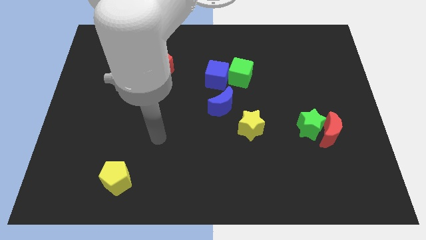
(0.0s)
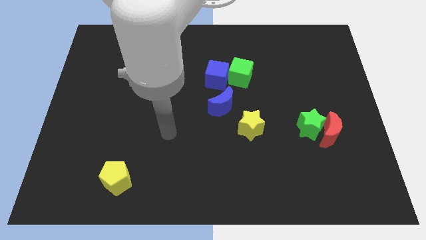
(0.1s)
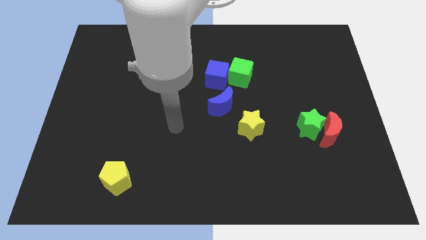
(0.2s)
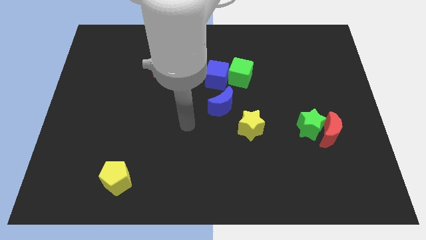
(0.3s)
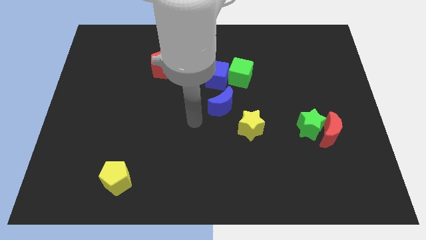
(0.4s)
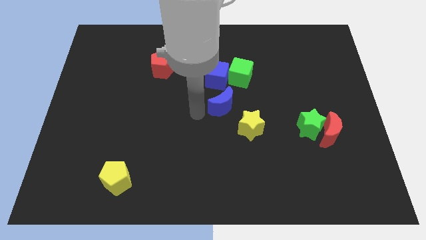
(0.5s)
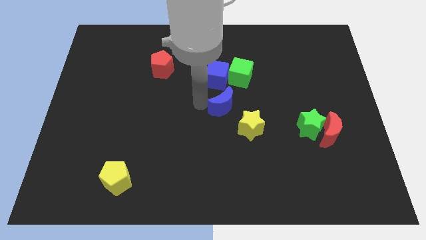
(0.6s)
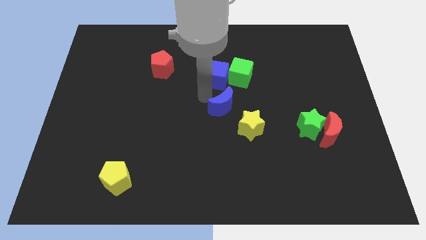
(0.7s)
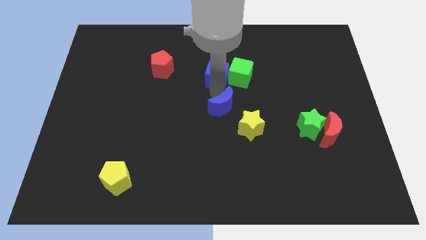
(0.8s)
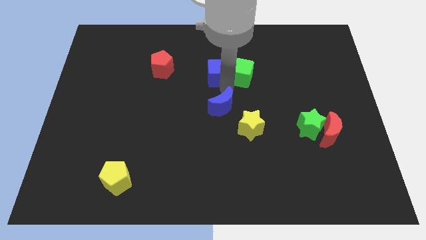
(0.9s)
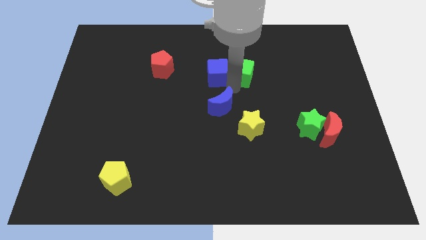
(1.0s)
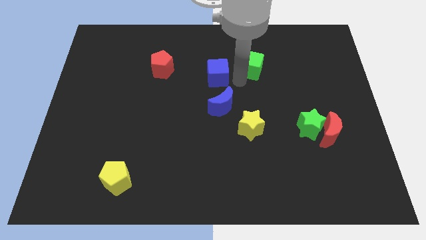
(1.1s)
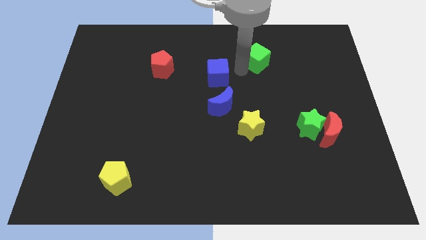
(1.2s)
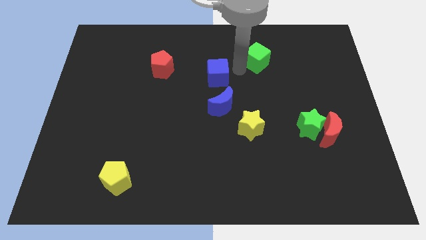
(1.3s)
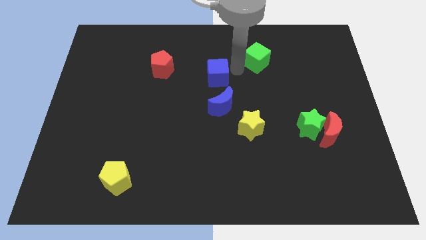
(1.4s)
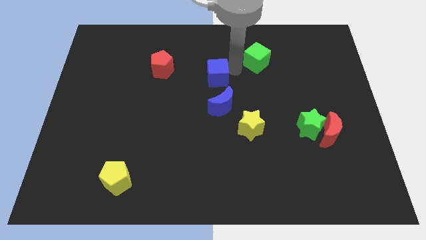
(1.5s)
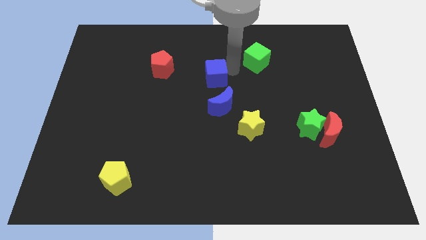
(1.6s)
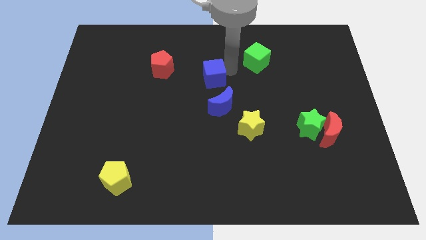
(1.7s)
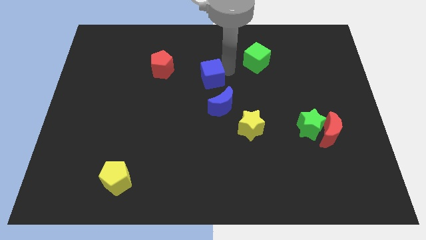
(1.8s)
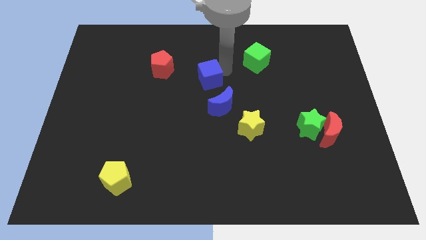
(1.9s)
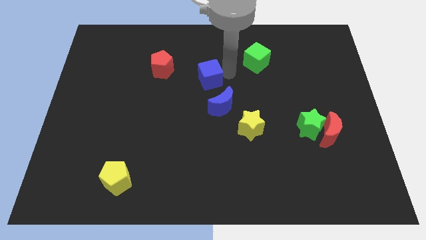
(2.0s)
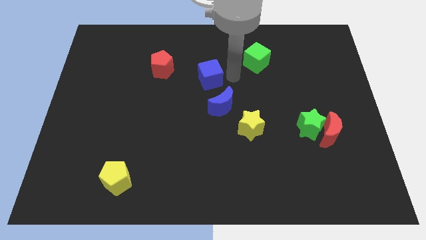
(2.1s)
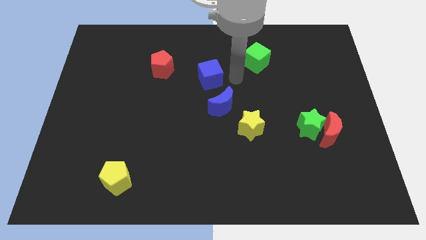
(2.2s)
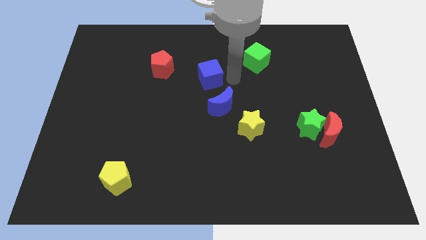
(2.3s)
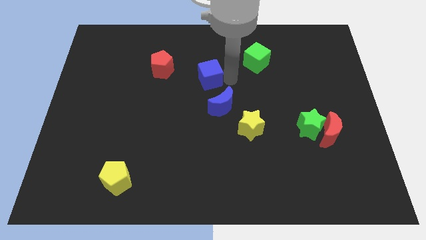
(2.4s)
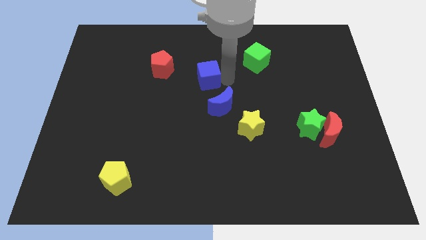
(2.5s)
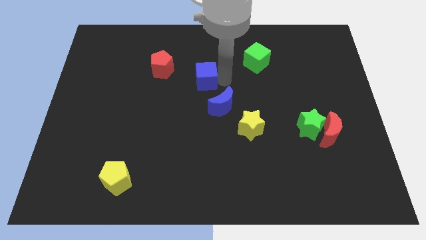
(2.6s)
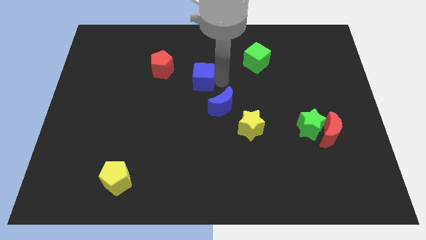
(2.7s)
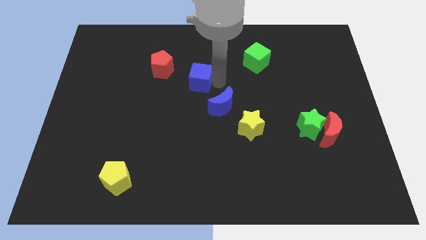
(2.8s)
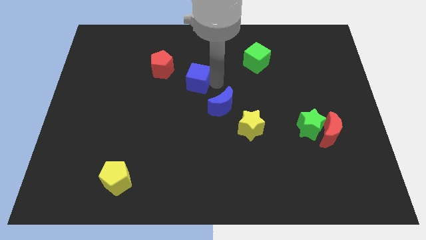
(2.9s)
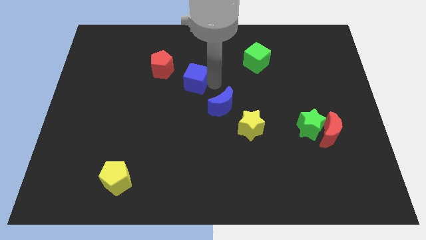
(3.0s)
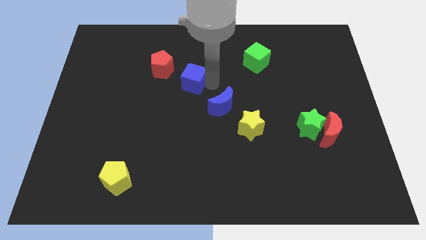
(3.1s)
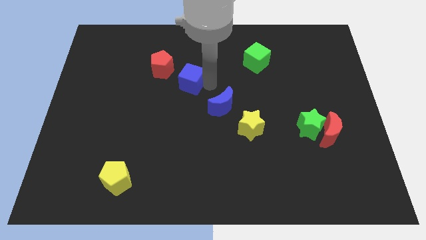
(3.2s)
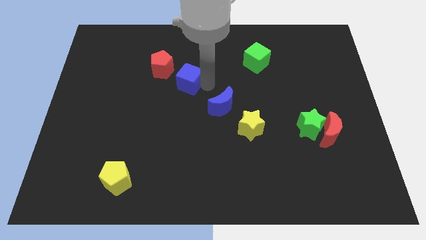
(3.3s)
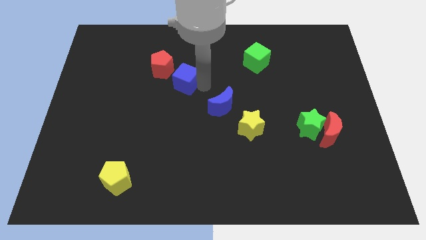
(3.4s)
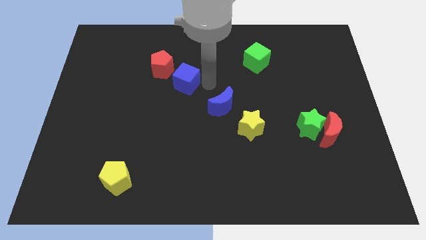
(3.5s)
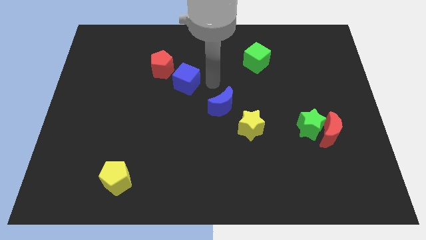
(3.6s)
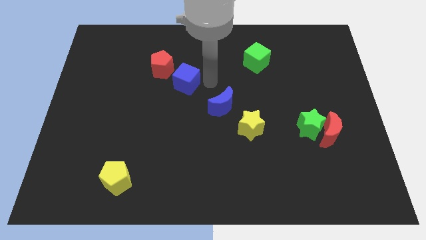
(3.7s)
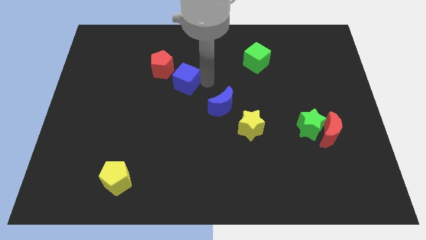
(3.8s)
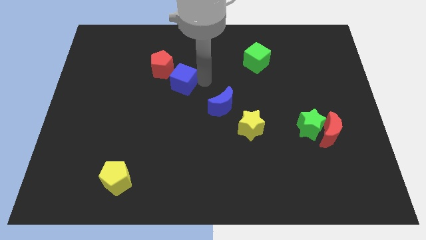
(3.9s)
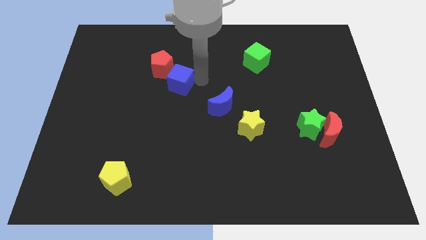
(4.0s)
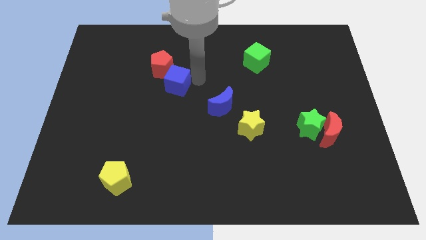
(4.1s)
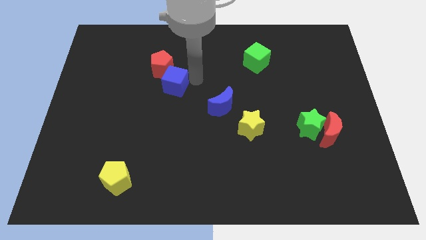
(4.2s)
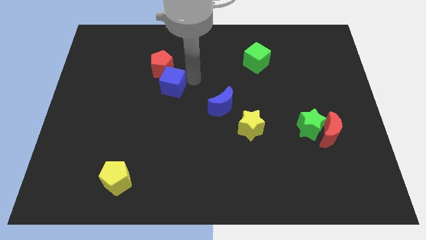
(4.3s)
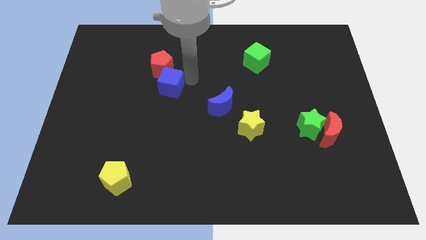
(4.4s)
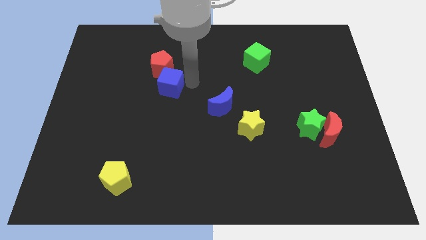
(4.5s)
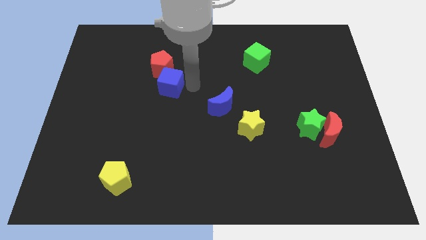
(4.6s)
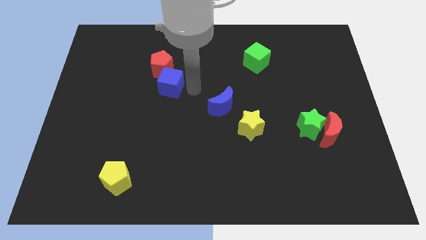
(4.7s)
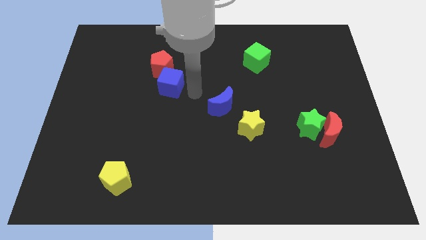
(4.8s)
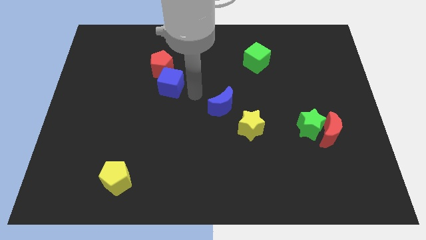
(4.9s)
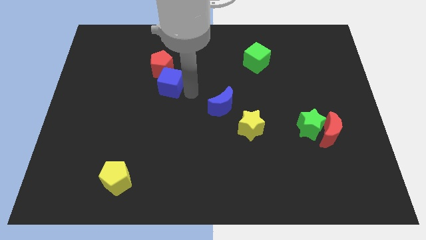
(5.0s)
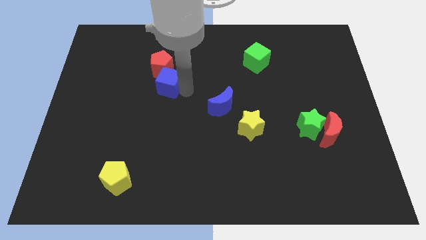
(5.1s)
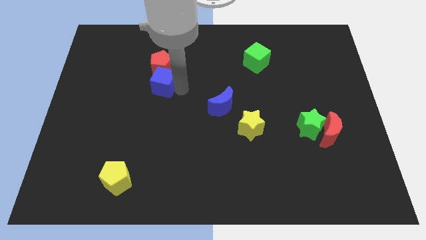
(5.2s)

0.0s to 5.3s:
push the blue cube to the bottom left of the red pentagon
